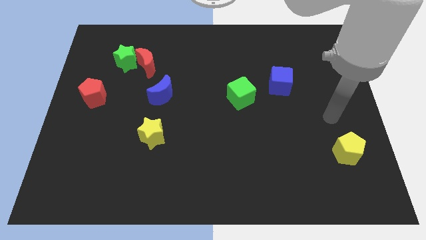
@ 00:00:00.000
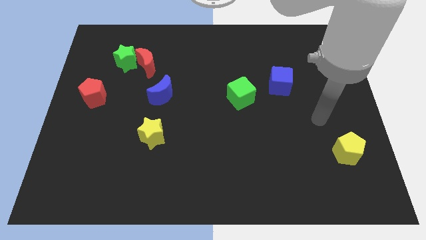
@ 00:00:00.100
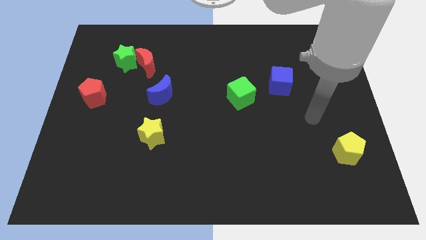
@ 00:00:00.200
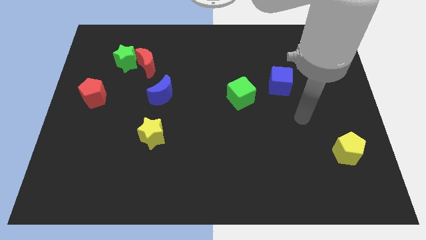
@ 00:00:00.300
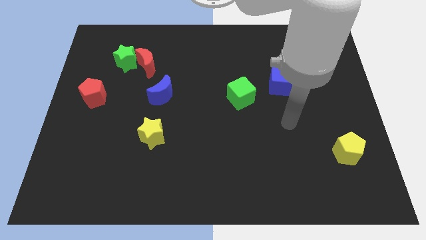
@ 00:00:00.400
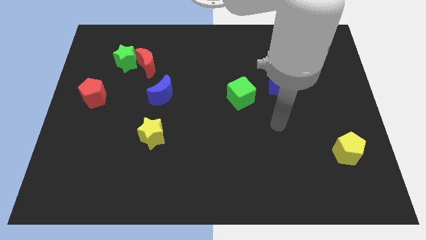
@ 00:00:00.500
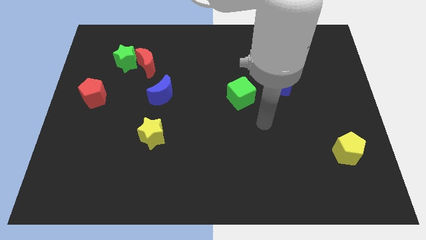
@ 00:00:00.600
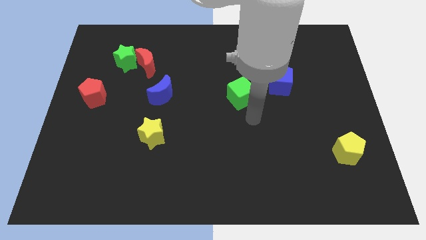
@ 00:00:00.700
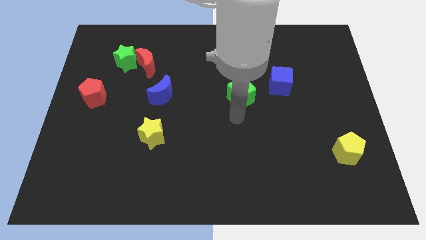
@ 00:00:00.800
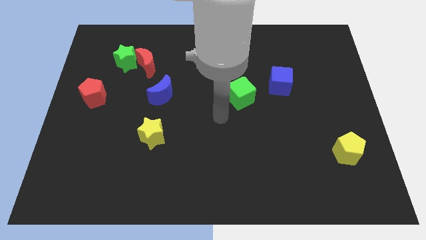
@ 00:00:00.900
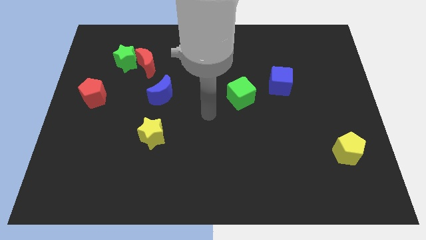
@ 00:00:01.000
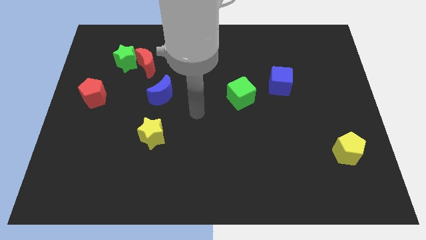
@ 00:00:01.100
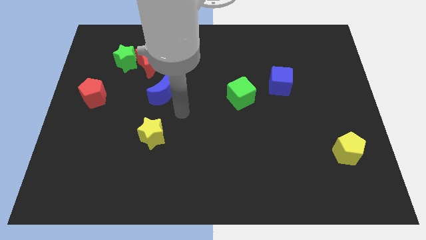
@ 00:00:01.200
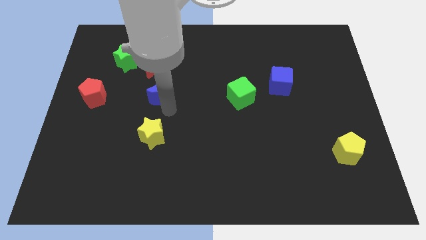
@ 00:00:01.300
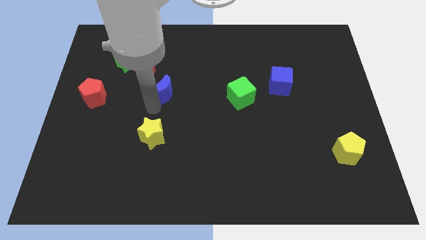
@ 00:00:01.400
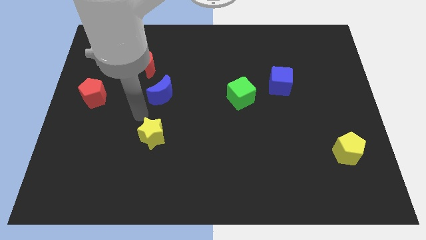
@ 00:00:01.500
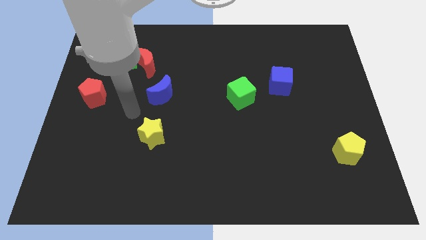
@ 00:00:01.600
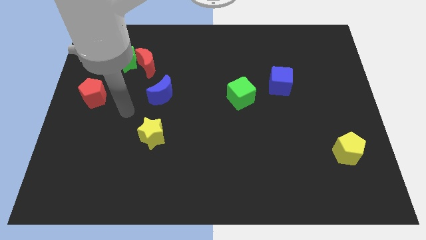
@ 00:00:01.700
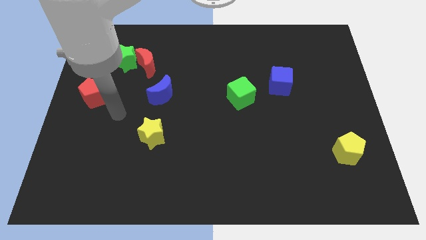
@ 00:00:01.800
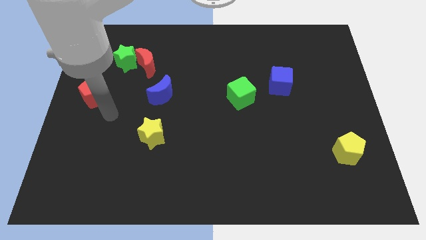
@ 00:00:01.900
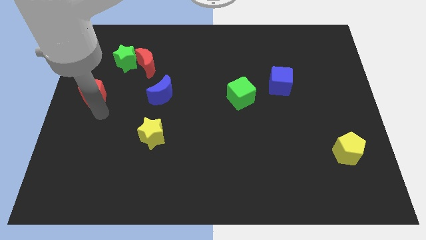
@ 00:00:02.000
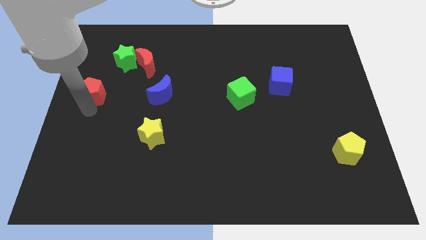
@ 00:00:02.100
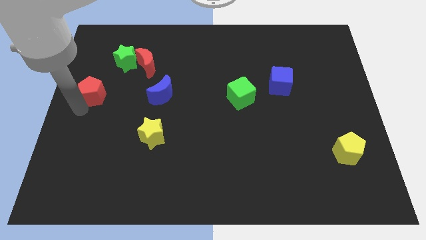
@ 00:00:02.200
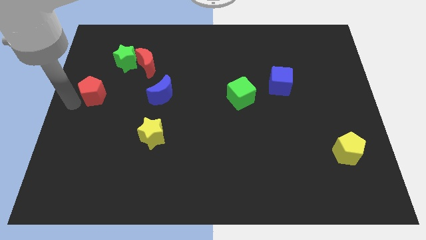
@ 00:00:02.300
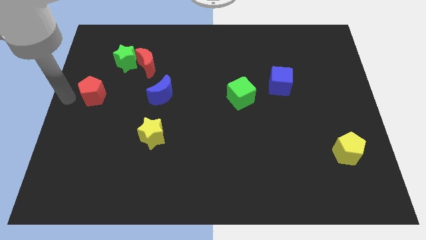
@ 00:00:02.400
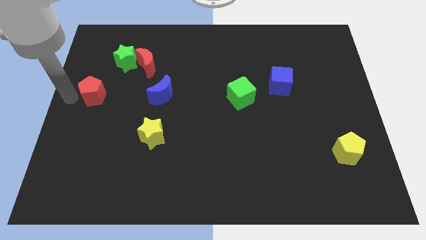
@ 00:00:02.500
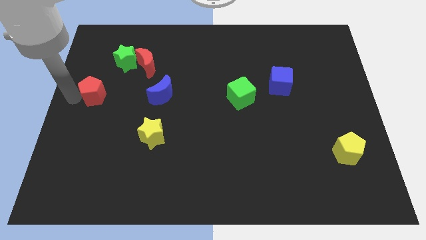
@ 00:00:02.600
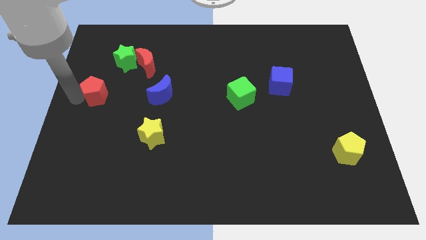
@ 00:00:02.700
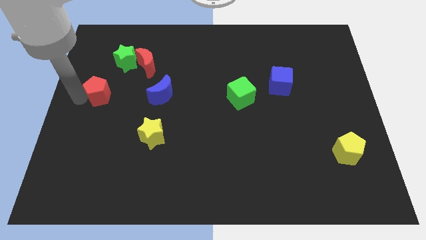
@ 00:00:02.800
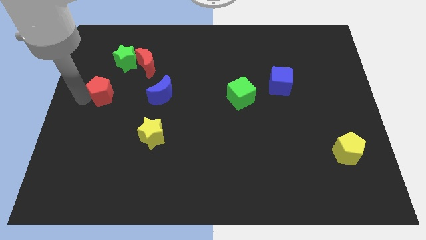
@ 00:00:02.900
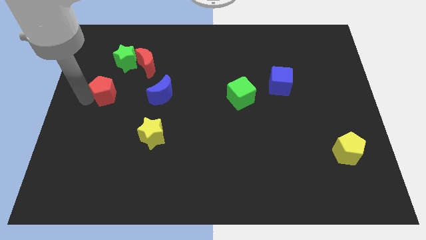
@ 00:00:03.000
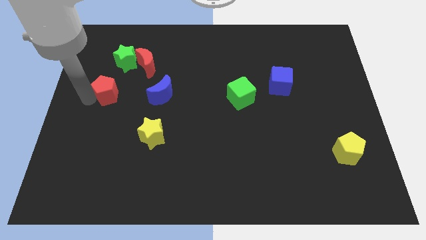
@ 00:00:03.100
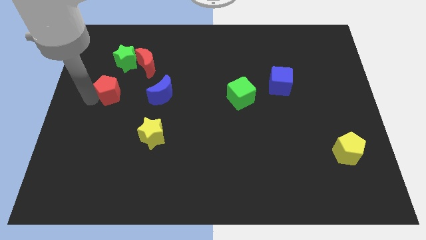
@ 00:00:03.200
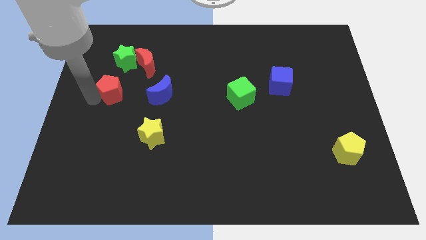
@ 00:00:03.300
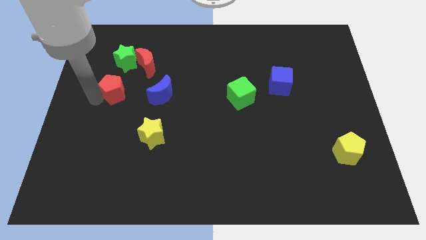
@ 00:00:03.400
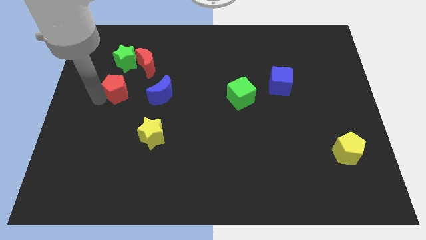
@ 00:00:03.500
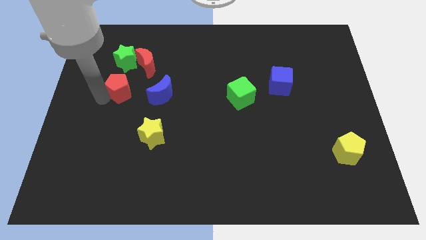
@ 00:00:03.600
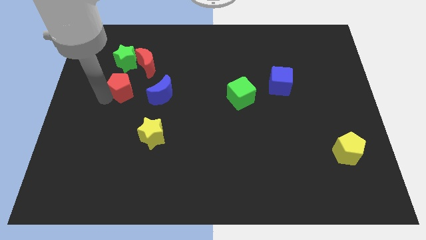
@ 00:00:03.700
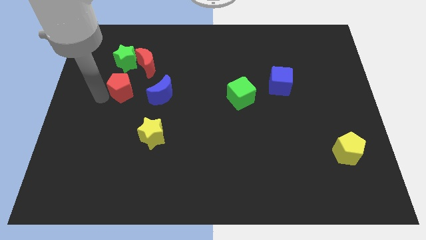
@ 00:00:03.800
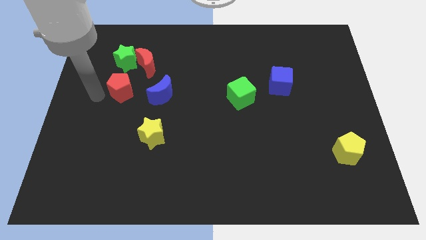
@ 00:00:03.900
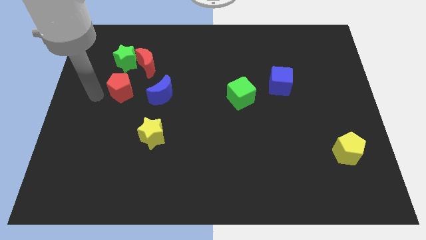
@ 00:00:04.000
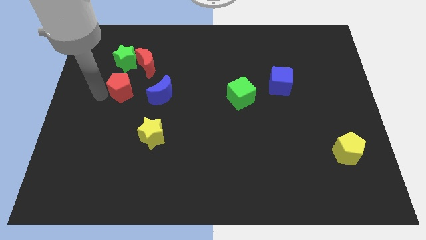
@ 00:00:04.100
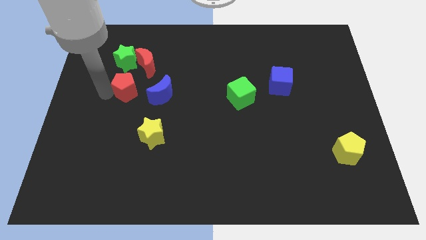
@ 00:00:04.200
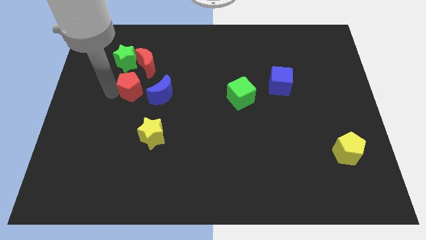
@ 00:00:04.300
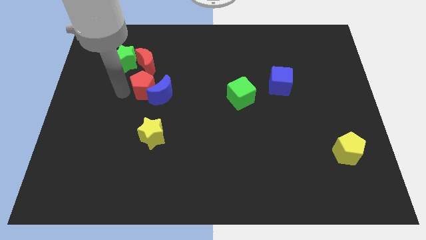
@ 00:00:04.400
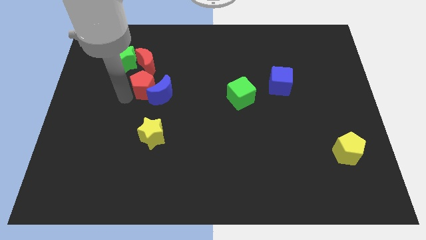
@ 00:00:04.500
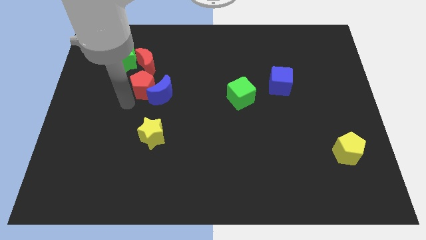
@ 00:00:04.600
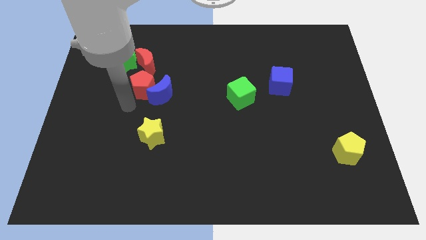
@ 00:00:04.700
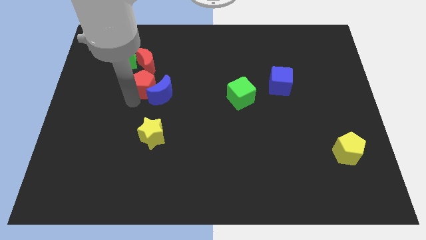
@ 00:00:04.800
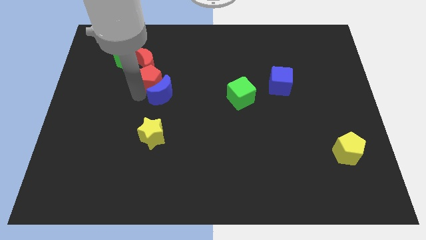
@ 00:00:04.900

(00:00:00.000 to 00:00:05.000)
slide the red pentagon above the blue moon

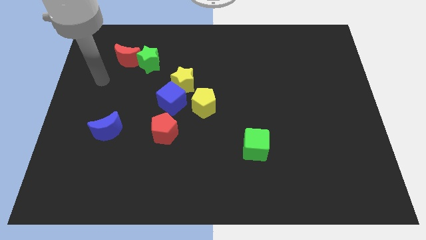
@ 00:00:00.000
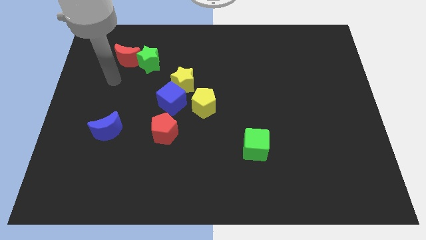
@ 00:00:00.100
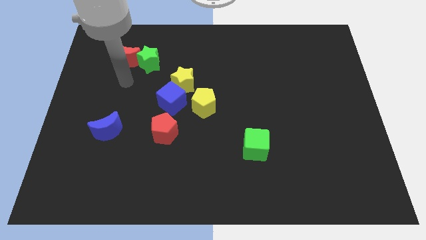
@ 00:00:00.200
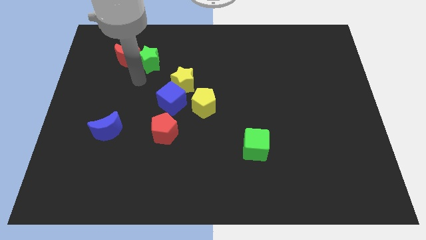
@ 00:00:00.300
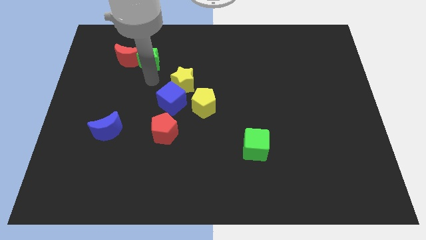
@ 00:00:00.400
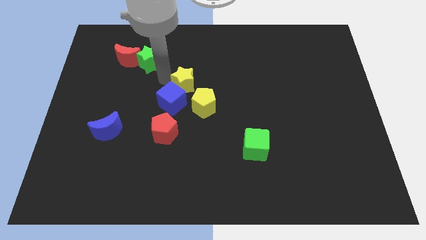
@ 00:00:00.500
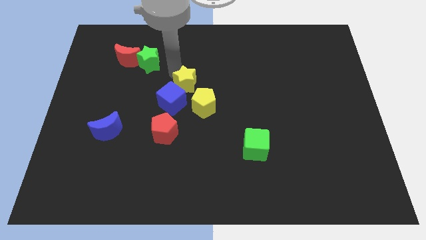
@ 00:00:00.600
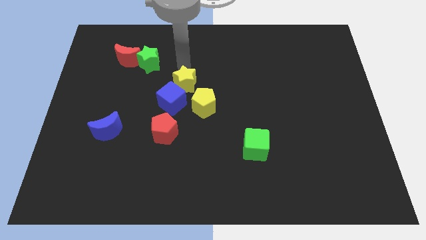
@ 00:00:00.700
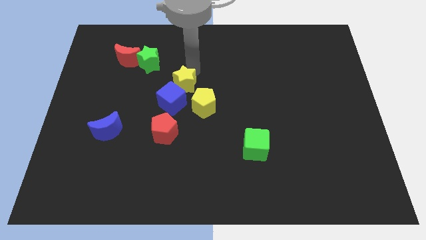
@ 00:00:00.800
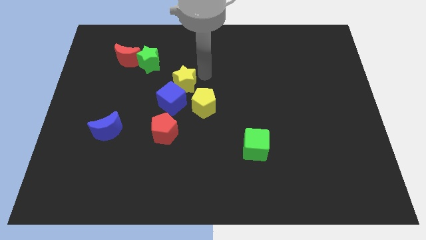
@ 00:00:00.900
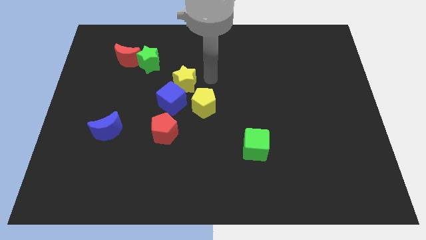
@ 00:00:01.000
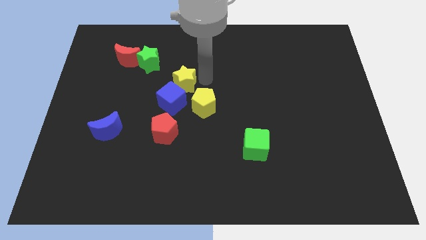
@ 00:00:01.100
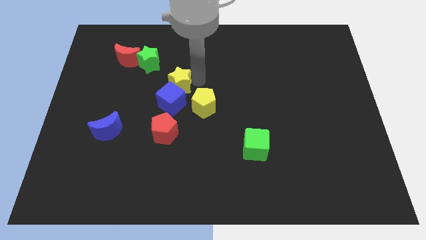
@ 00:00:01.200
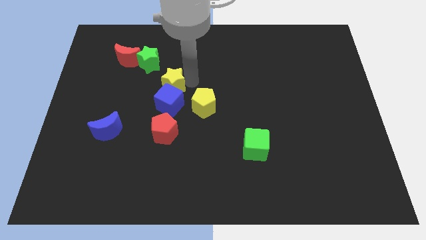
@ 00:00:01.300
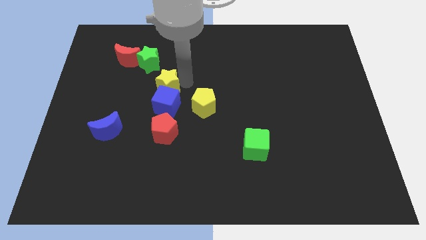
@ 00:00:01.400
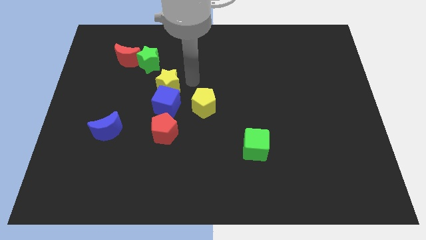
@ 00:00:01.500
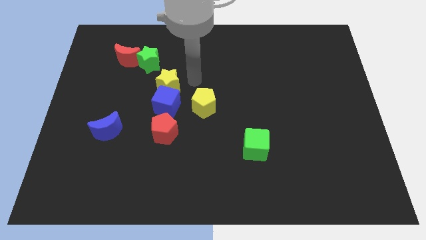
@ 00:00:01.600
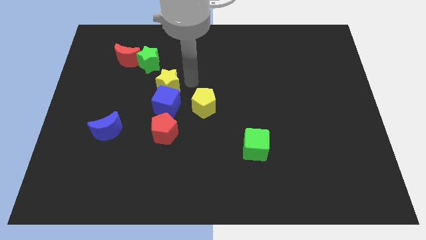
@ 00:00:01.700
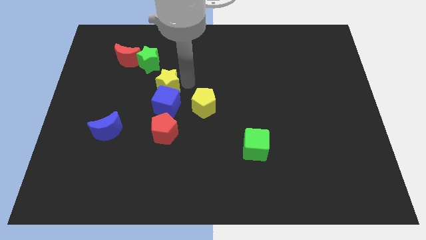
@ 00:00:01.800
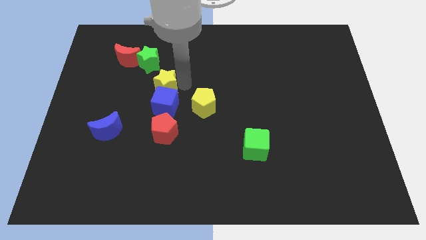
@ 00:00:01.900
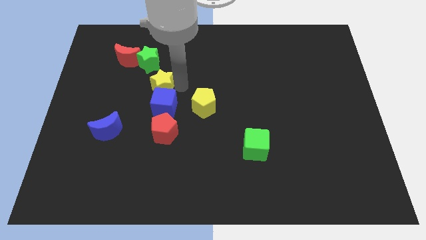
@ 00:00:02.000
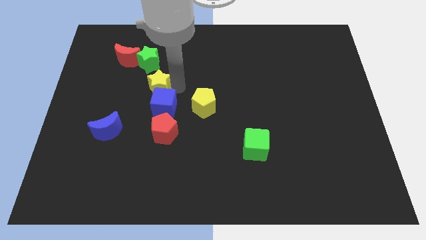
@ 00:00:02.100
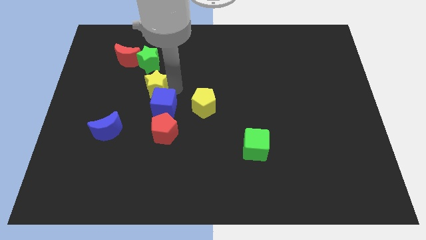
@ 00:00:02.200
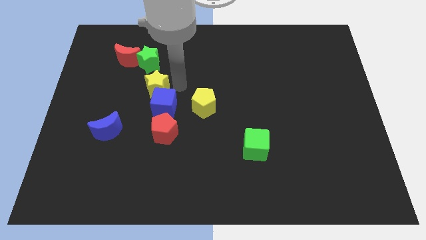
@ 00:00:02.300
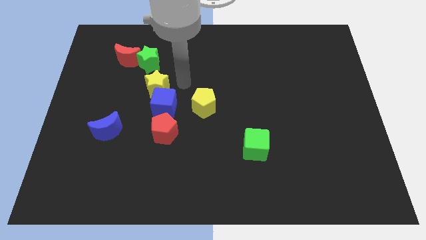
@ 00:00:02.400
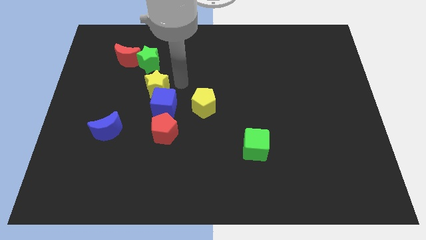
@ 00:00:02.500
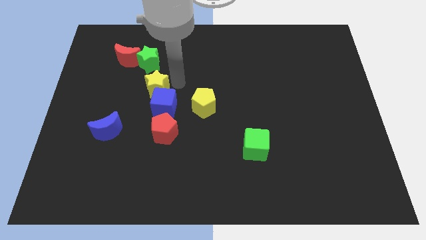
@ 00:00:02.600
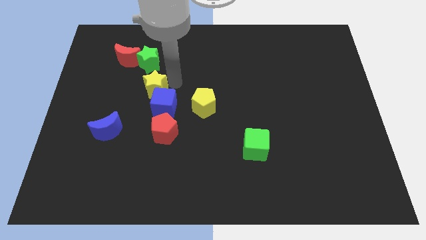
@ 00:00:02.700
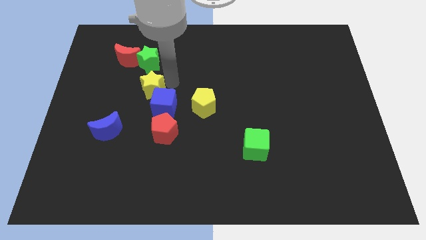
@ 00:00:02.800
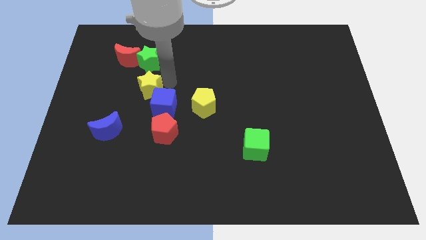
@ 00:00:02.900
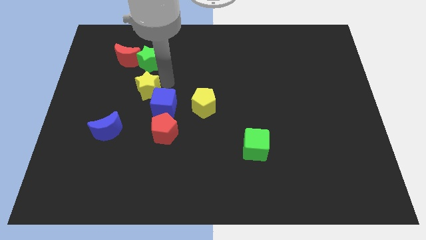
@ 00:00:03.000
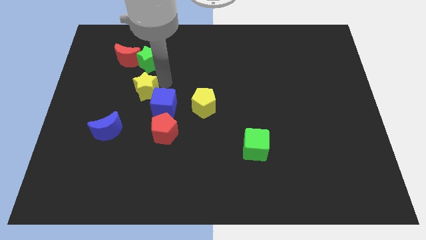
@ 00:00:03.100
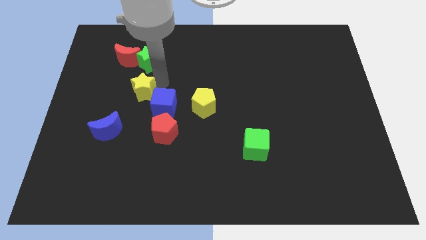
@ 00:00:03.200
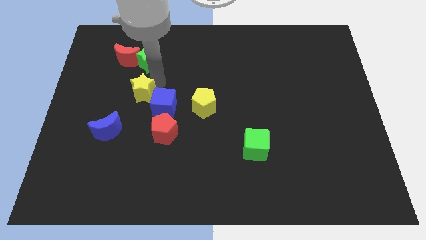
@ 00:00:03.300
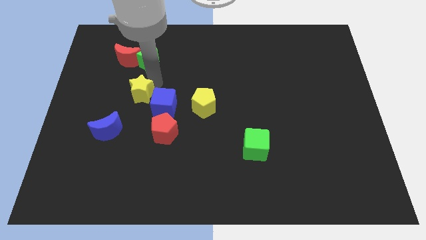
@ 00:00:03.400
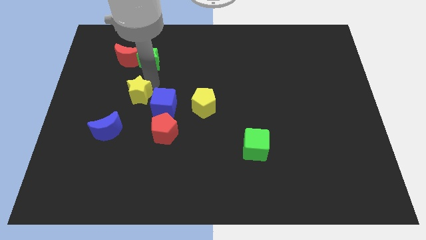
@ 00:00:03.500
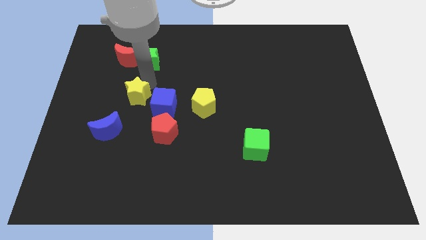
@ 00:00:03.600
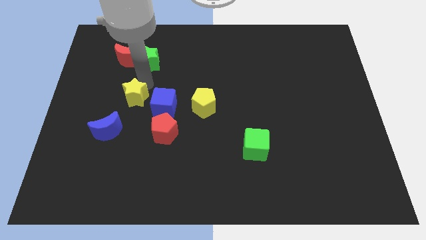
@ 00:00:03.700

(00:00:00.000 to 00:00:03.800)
put the yellow star to the top side of the blue moon
